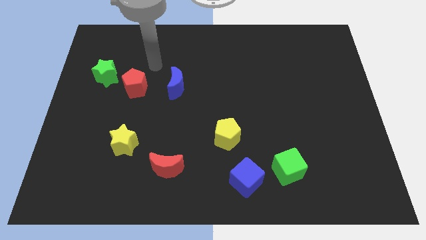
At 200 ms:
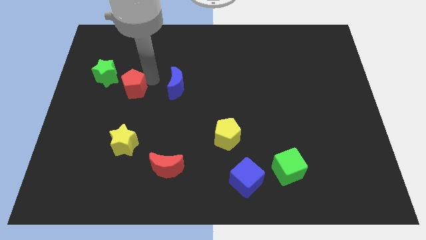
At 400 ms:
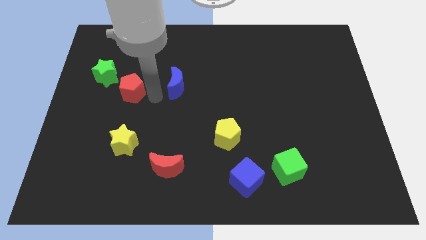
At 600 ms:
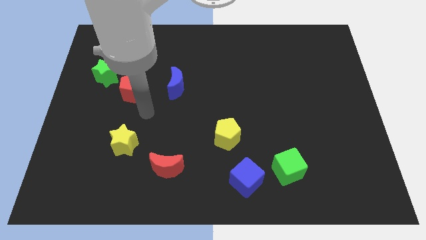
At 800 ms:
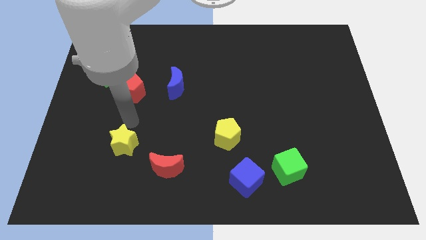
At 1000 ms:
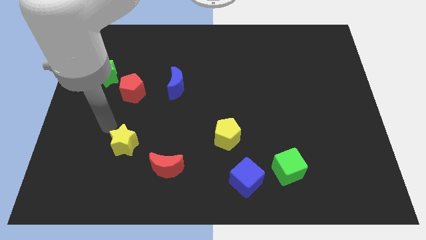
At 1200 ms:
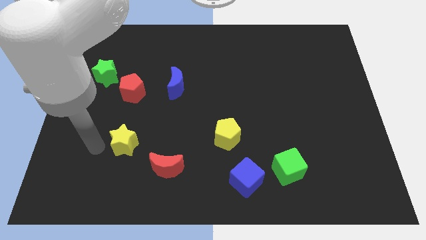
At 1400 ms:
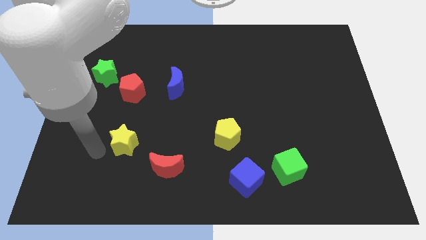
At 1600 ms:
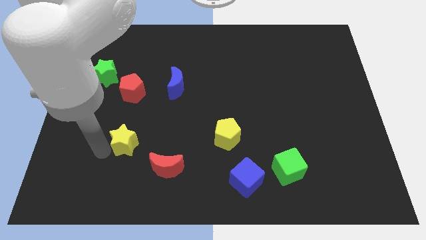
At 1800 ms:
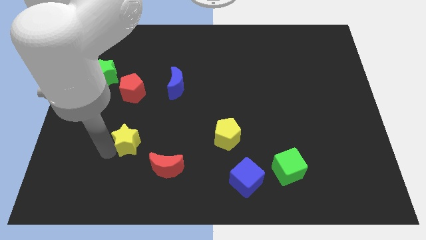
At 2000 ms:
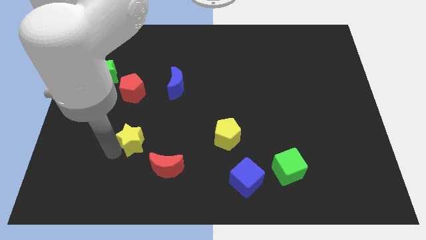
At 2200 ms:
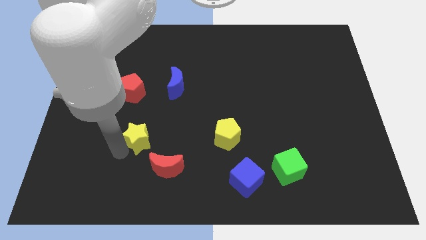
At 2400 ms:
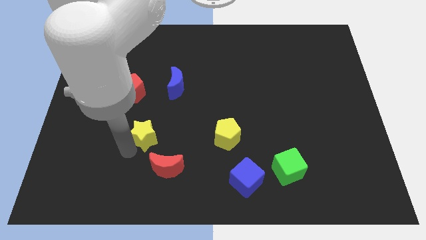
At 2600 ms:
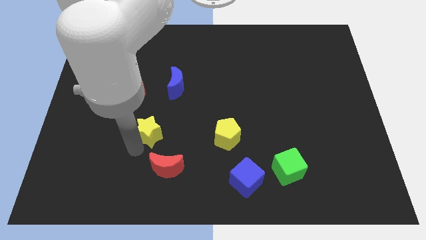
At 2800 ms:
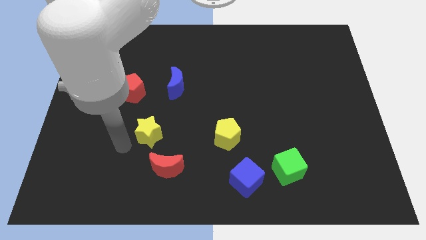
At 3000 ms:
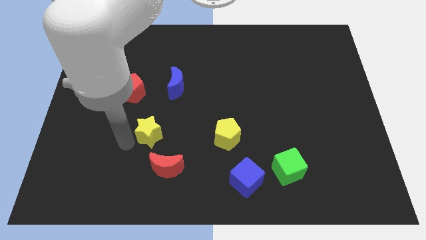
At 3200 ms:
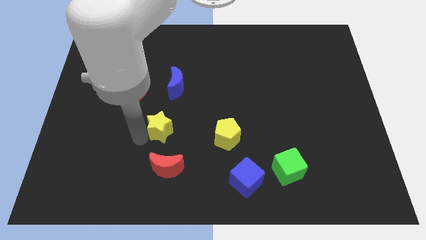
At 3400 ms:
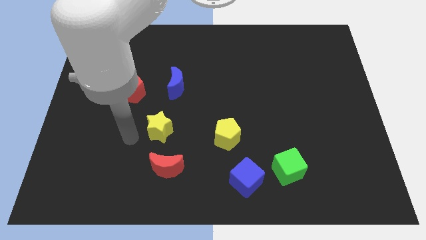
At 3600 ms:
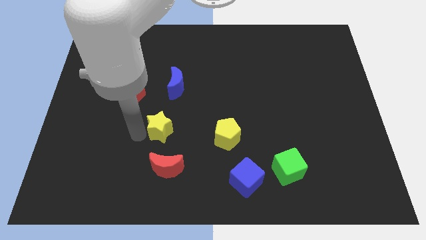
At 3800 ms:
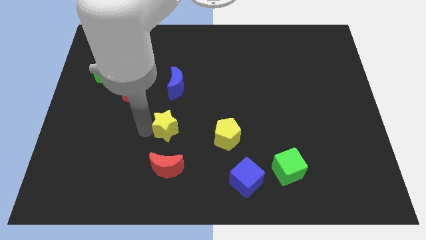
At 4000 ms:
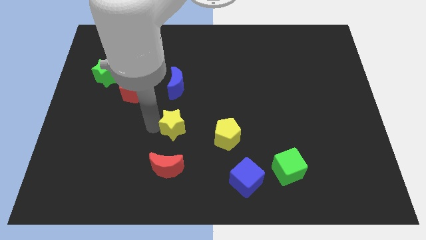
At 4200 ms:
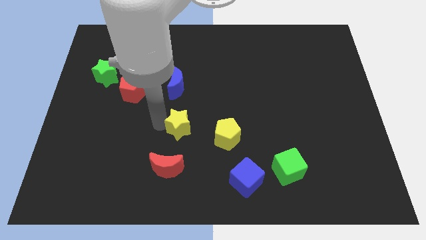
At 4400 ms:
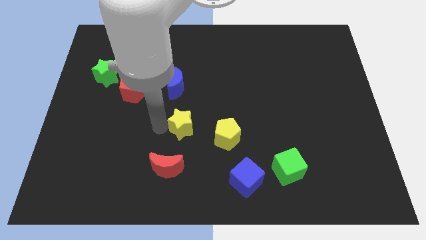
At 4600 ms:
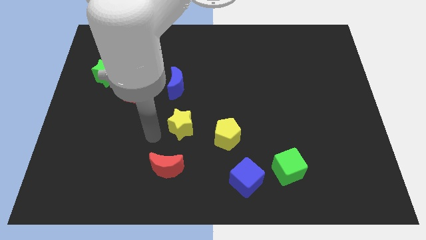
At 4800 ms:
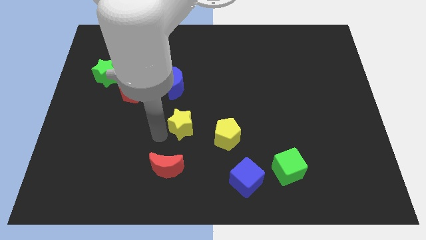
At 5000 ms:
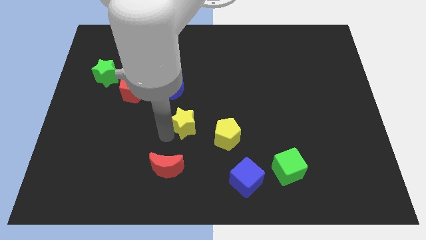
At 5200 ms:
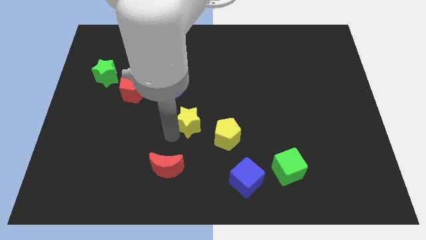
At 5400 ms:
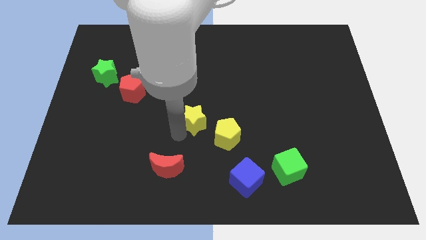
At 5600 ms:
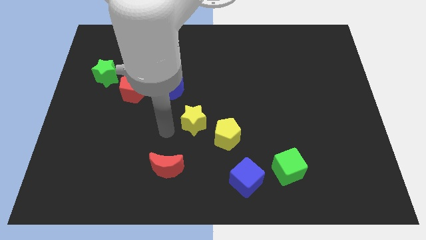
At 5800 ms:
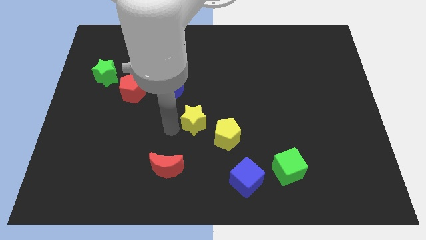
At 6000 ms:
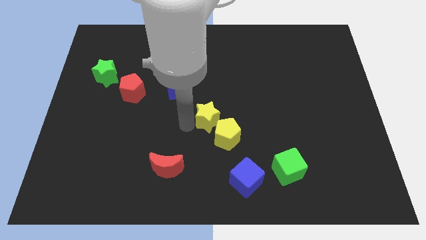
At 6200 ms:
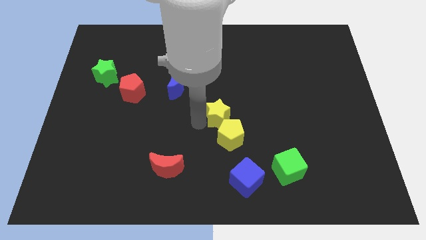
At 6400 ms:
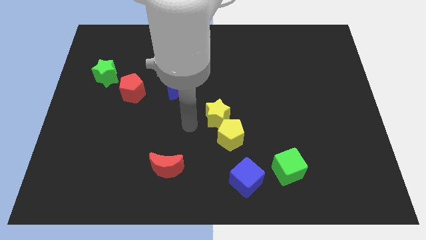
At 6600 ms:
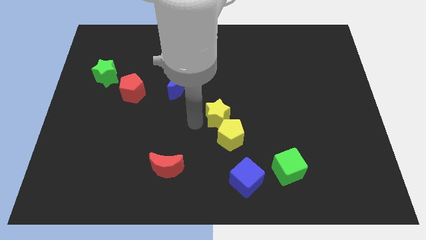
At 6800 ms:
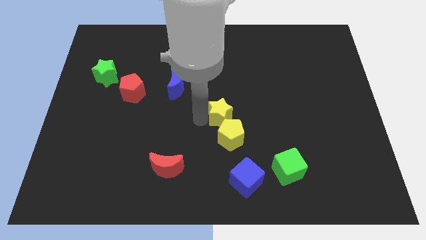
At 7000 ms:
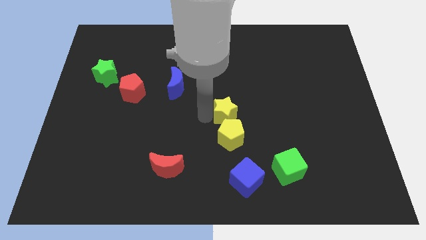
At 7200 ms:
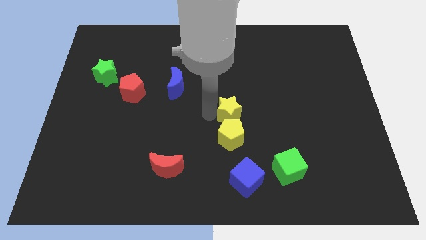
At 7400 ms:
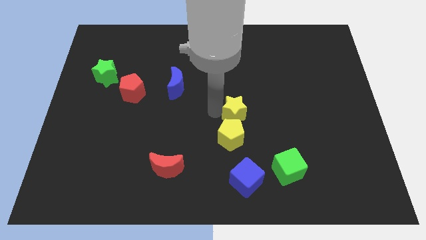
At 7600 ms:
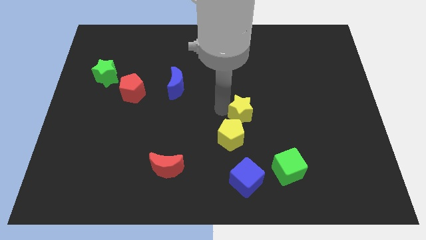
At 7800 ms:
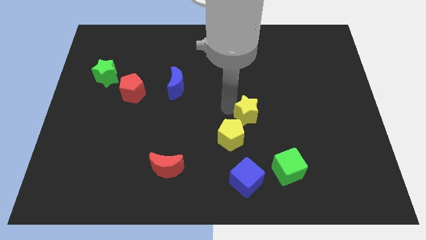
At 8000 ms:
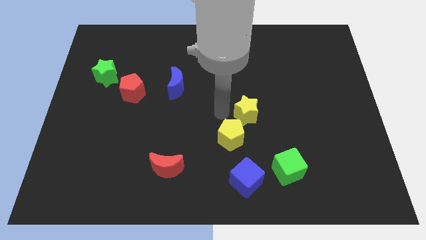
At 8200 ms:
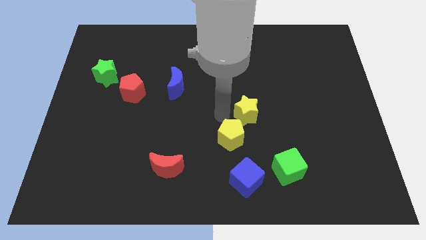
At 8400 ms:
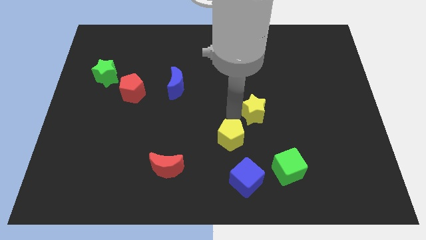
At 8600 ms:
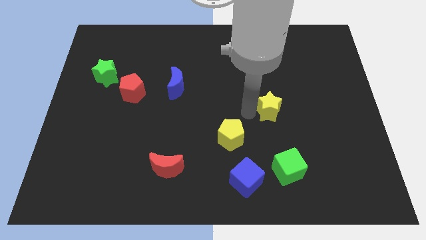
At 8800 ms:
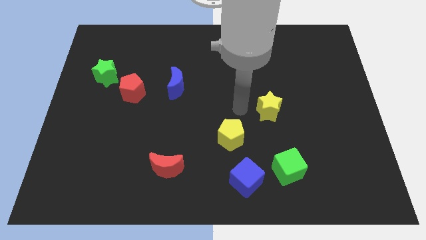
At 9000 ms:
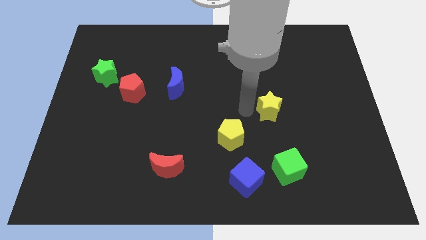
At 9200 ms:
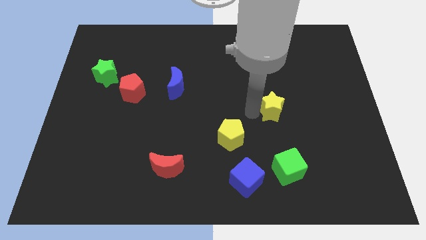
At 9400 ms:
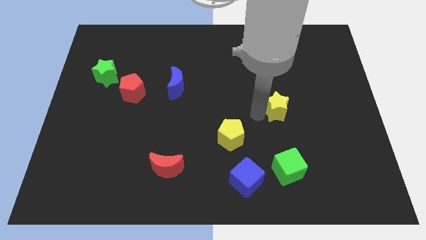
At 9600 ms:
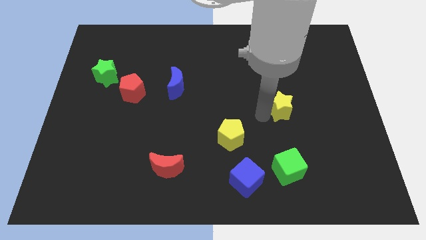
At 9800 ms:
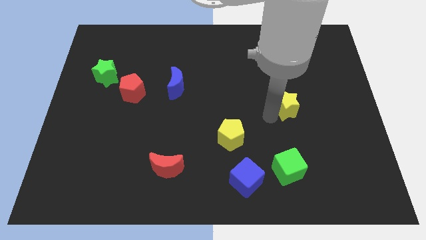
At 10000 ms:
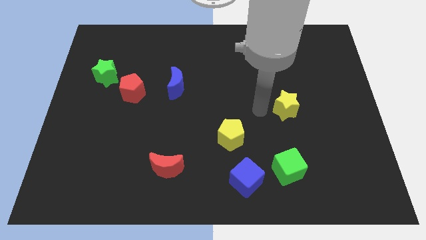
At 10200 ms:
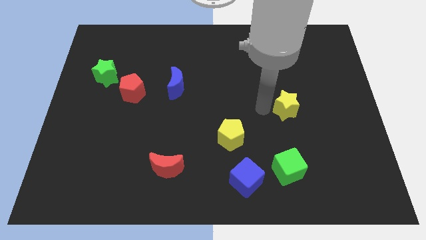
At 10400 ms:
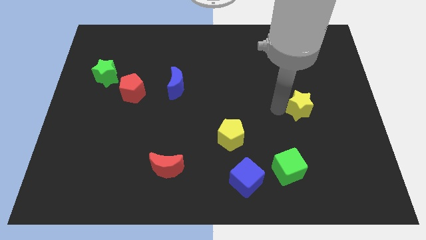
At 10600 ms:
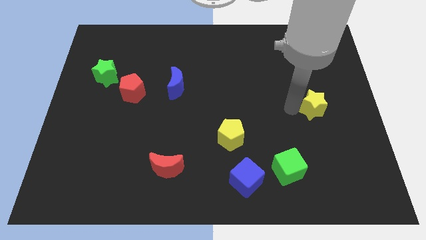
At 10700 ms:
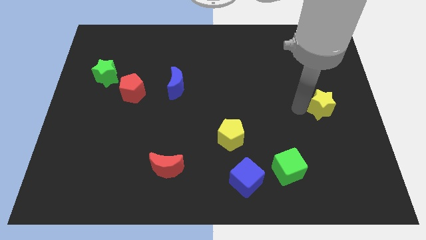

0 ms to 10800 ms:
move the yellow star to the right side
